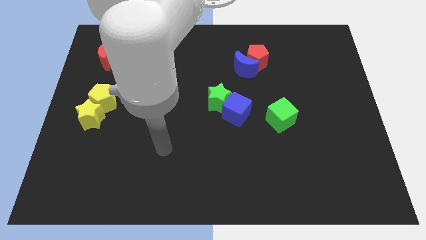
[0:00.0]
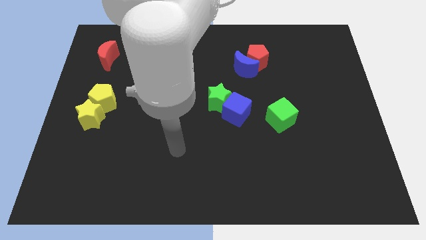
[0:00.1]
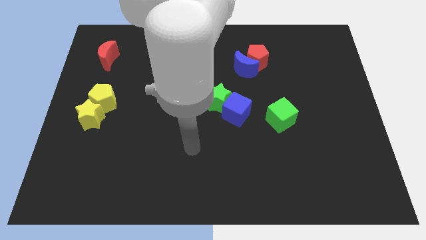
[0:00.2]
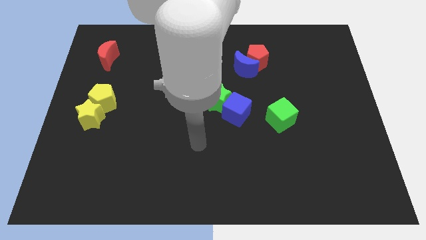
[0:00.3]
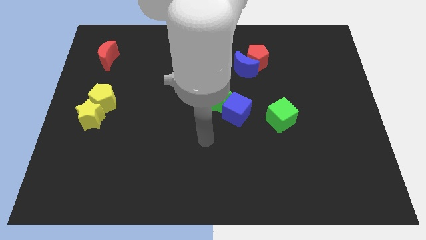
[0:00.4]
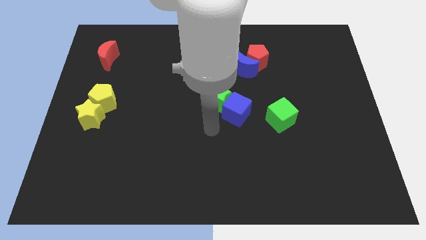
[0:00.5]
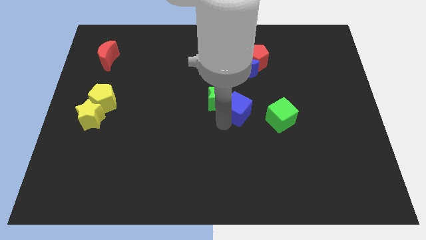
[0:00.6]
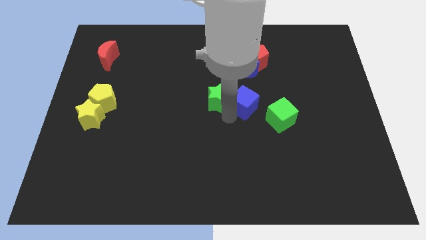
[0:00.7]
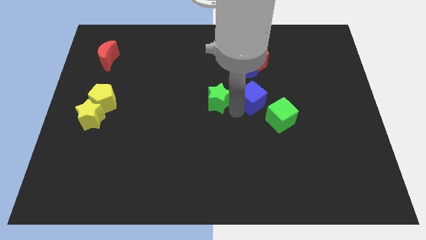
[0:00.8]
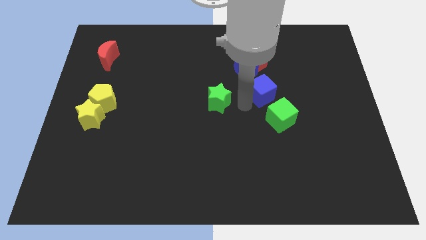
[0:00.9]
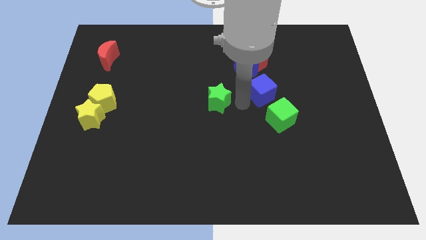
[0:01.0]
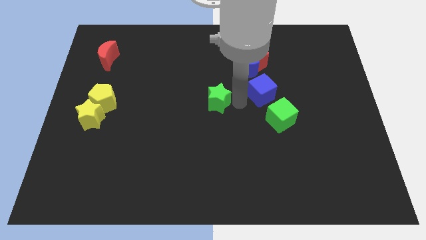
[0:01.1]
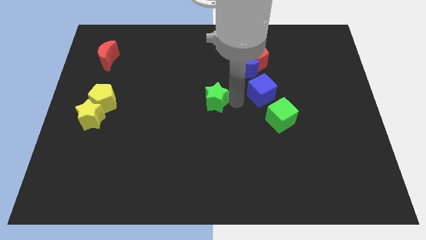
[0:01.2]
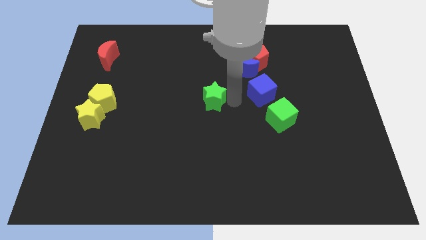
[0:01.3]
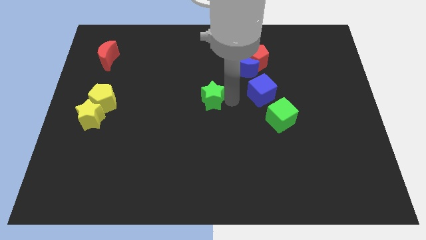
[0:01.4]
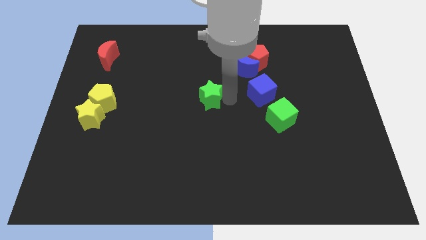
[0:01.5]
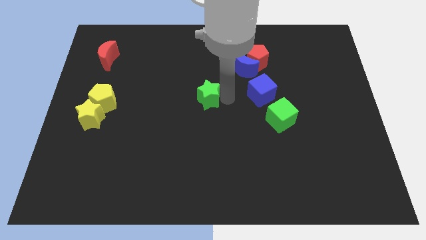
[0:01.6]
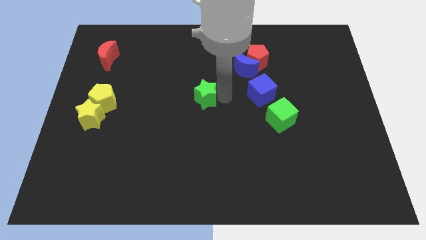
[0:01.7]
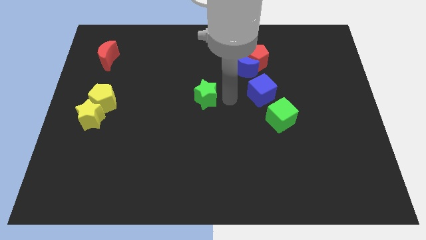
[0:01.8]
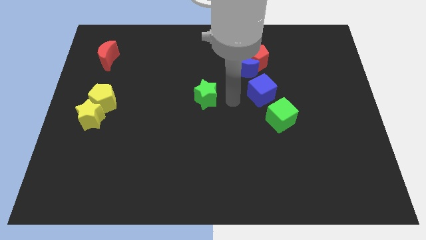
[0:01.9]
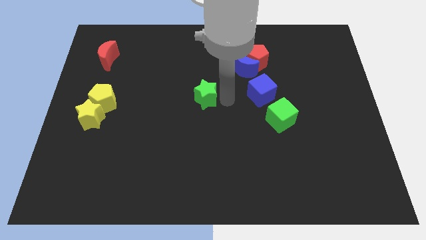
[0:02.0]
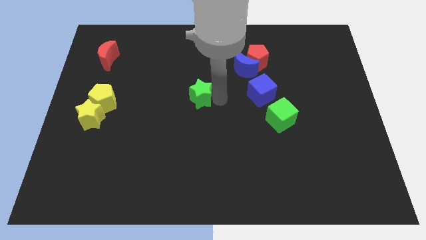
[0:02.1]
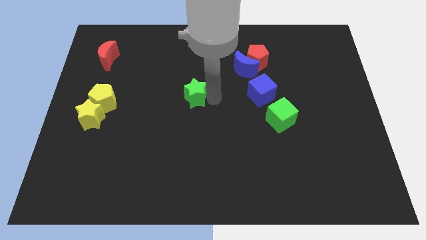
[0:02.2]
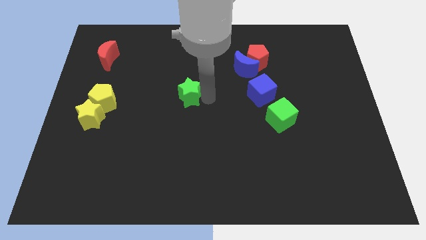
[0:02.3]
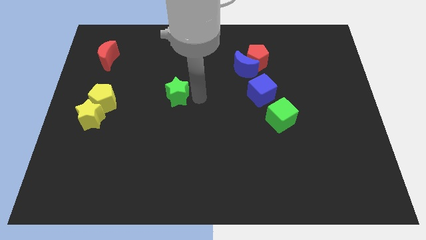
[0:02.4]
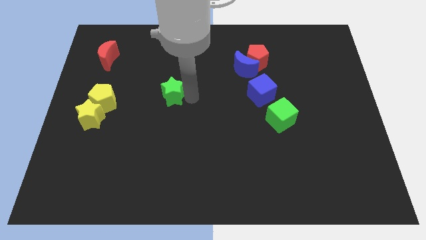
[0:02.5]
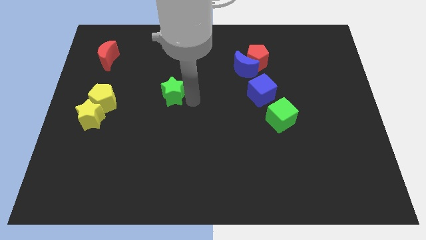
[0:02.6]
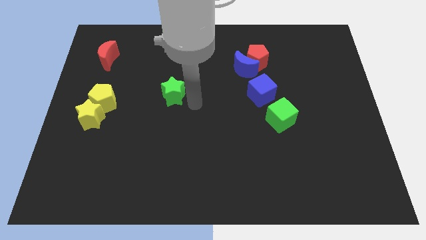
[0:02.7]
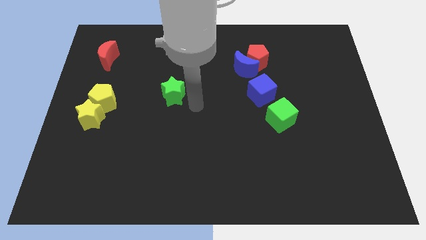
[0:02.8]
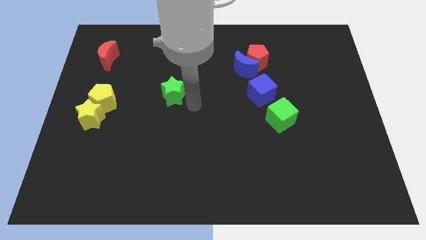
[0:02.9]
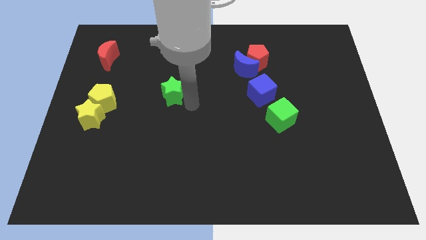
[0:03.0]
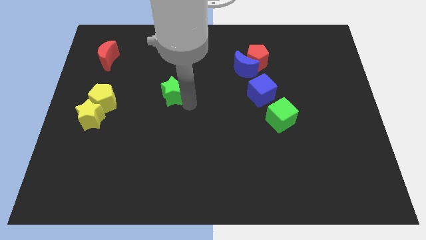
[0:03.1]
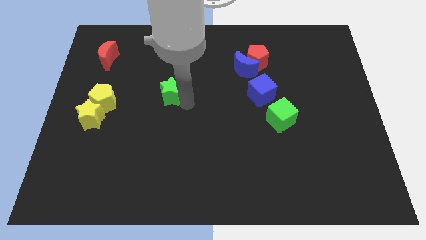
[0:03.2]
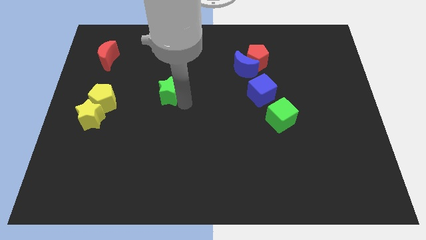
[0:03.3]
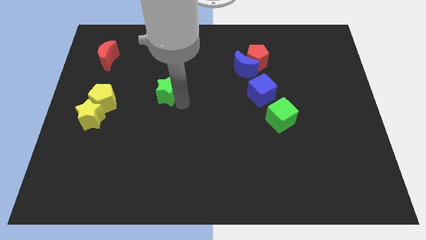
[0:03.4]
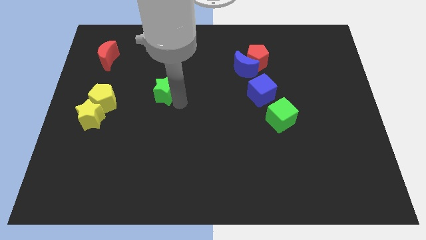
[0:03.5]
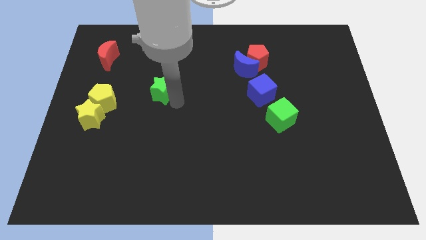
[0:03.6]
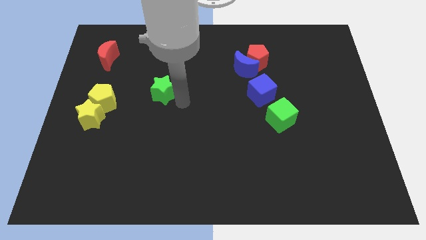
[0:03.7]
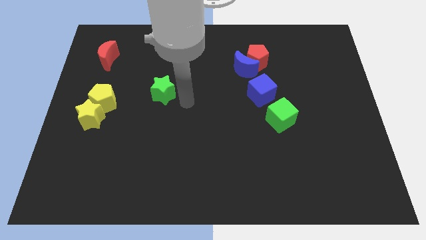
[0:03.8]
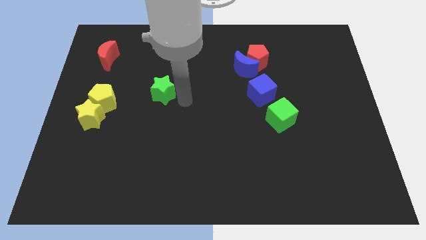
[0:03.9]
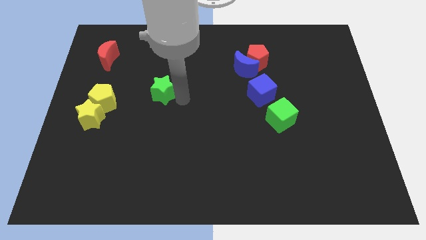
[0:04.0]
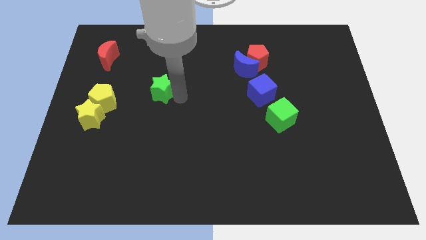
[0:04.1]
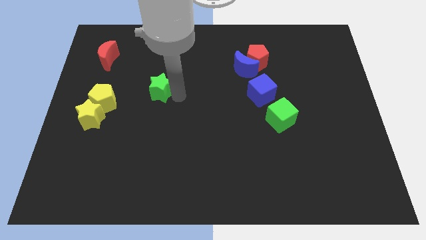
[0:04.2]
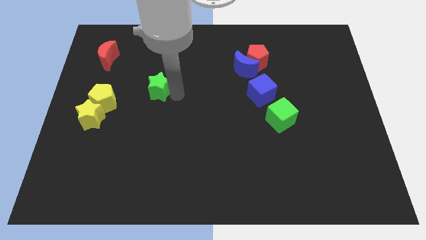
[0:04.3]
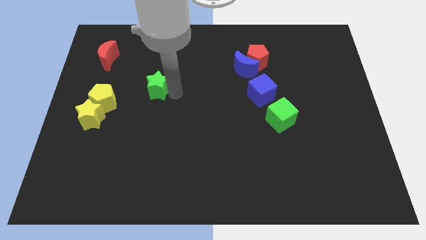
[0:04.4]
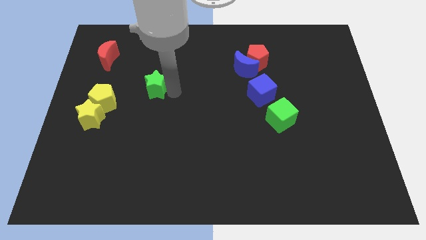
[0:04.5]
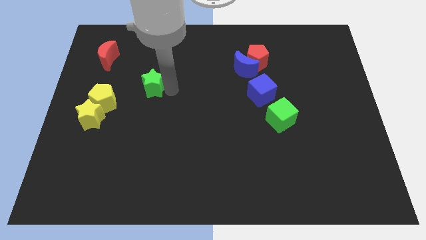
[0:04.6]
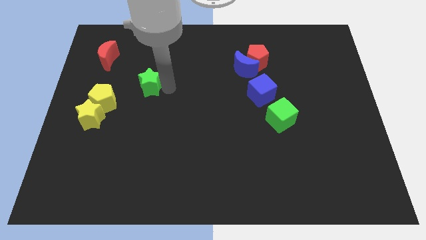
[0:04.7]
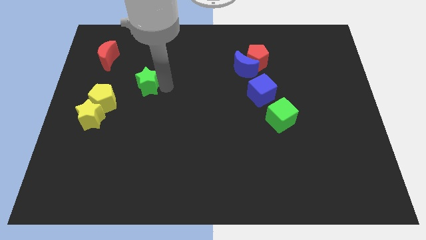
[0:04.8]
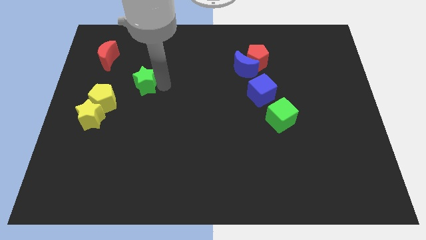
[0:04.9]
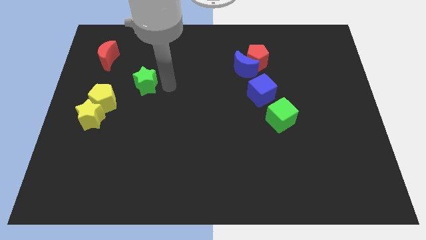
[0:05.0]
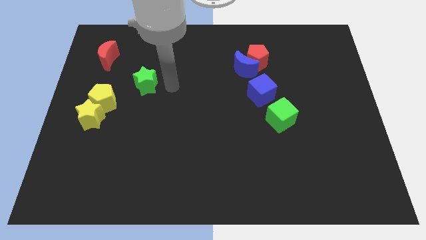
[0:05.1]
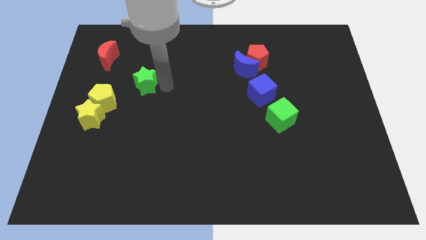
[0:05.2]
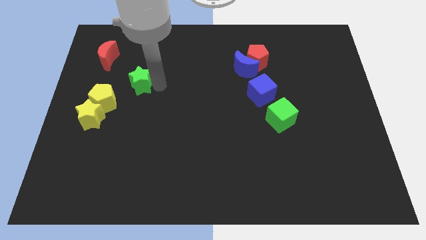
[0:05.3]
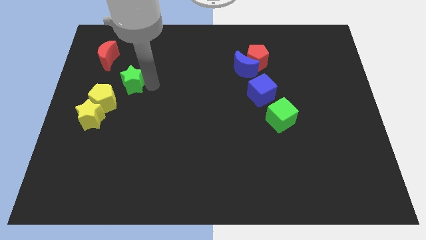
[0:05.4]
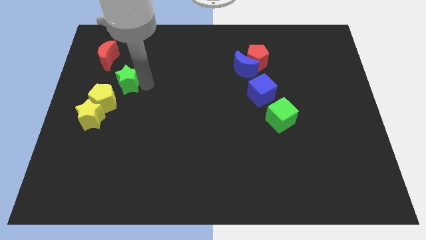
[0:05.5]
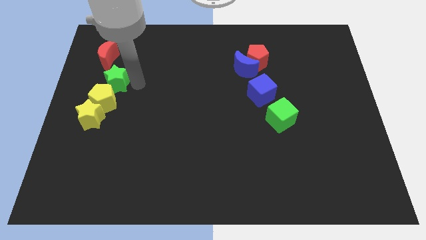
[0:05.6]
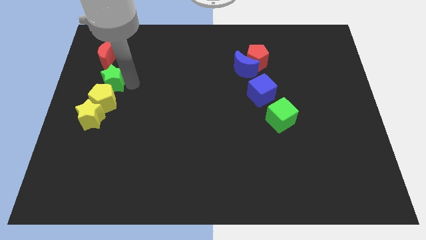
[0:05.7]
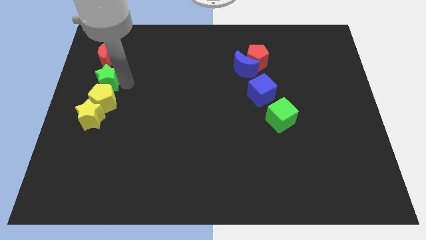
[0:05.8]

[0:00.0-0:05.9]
push the green star to the left side
